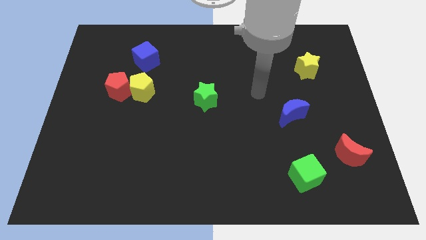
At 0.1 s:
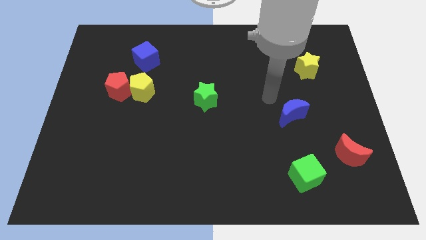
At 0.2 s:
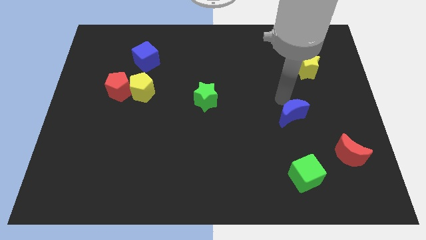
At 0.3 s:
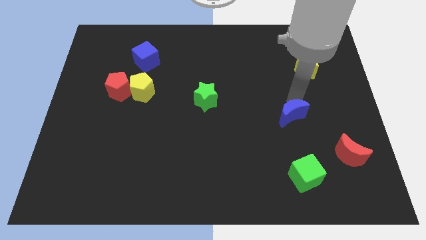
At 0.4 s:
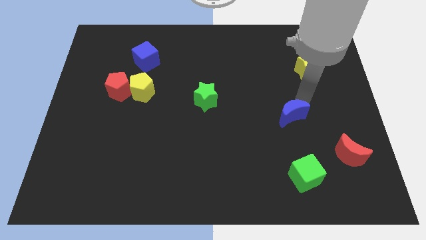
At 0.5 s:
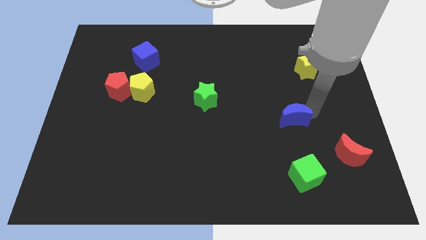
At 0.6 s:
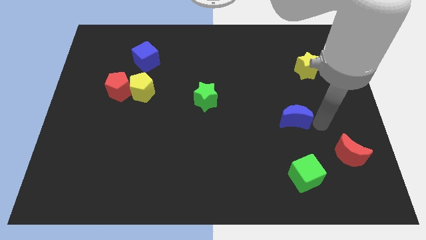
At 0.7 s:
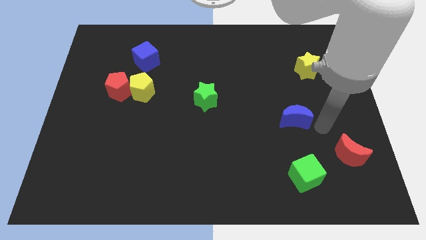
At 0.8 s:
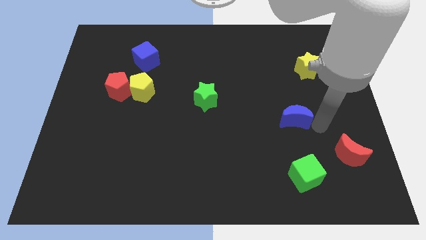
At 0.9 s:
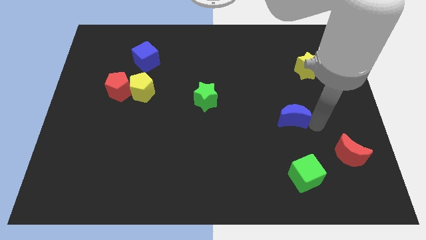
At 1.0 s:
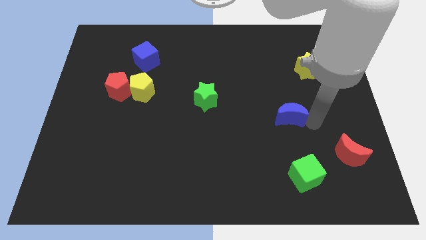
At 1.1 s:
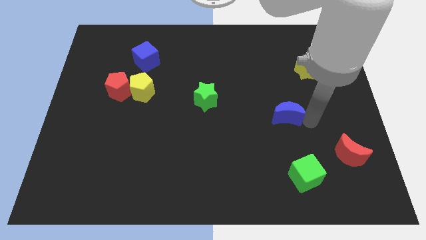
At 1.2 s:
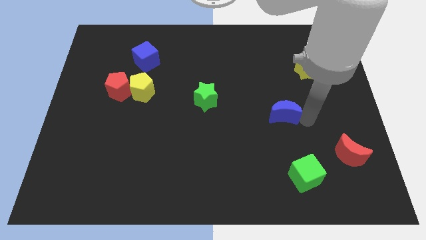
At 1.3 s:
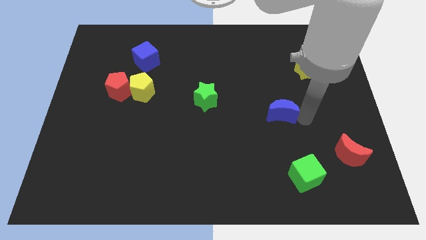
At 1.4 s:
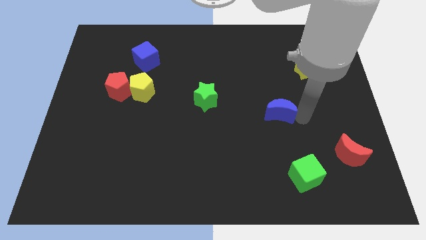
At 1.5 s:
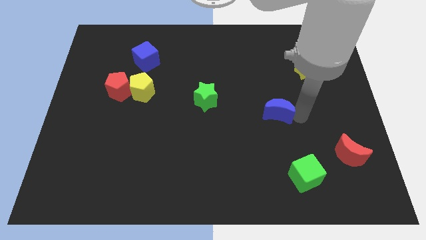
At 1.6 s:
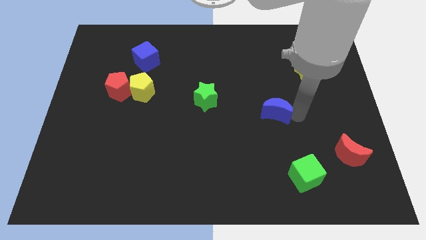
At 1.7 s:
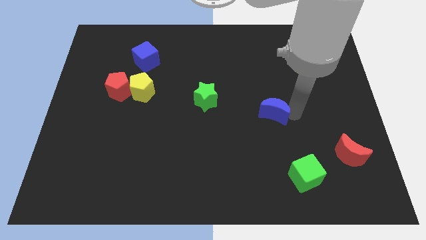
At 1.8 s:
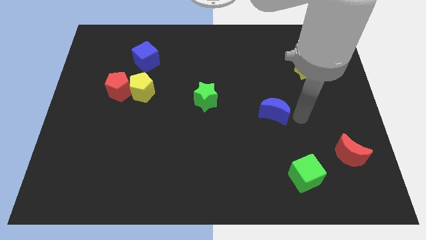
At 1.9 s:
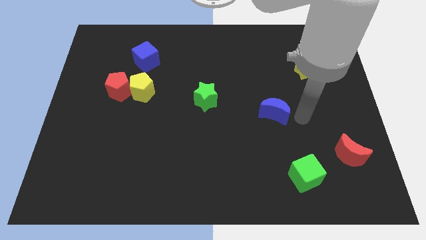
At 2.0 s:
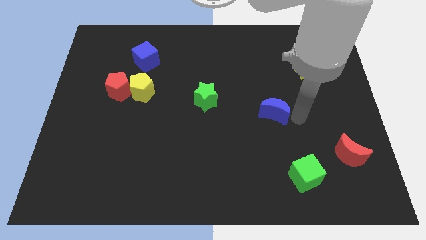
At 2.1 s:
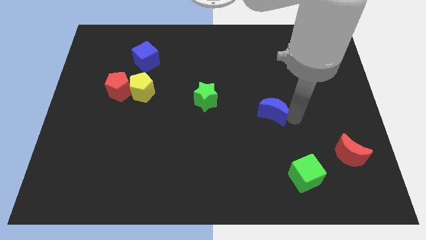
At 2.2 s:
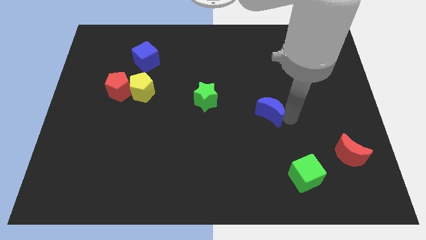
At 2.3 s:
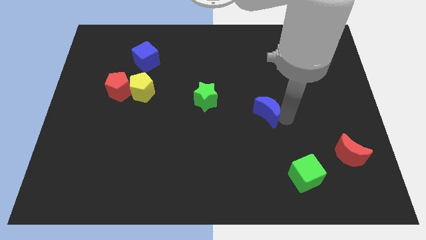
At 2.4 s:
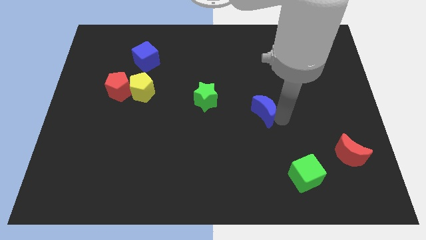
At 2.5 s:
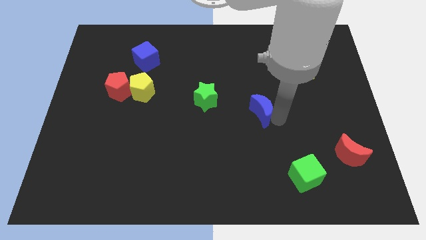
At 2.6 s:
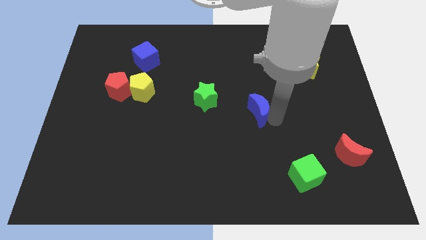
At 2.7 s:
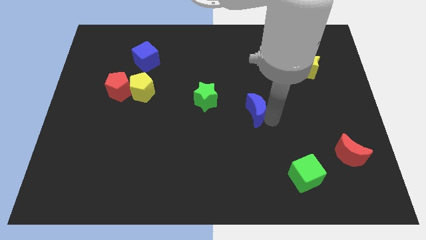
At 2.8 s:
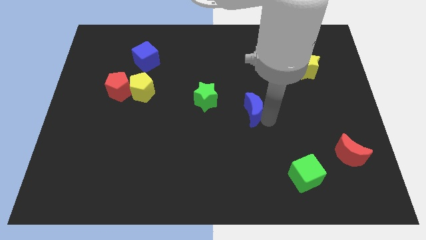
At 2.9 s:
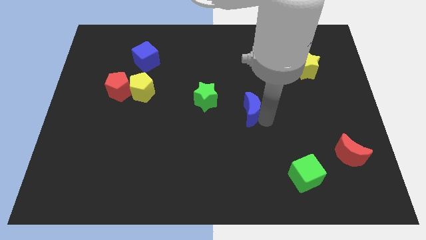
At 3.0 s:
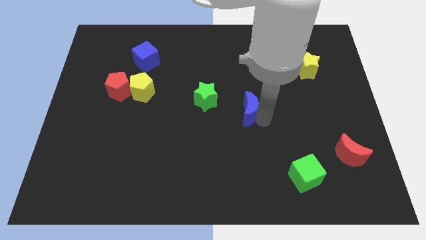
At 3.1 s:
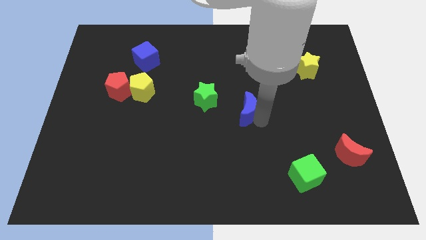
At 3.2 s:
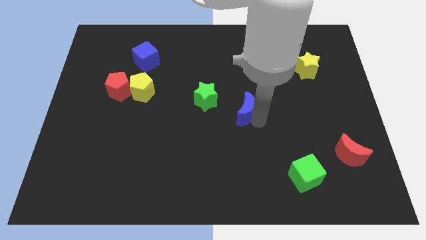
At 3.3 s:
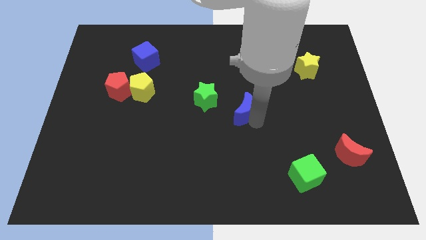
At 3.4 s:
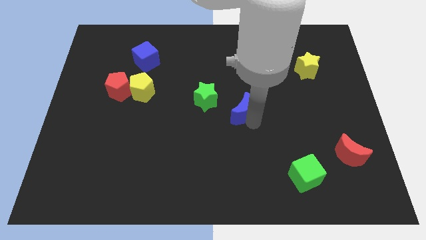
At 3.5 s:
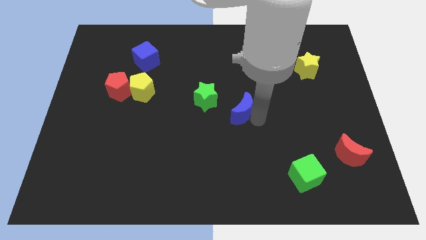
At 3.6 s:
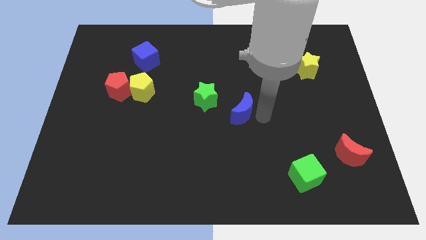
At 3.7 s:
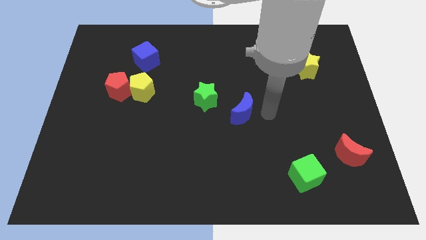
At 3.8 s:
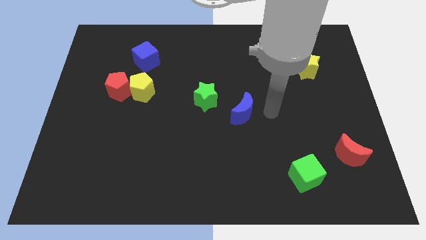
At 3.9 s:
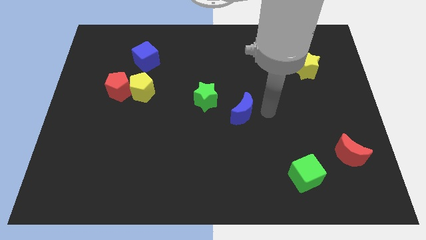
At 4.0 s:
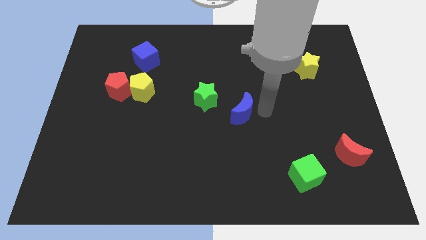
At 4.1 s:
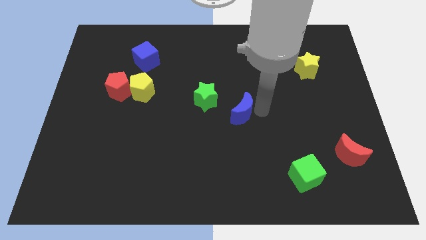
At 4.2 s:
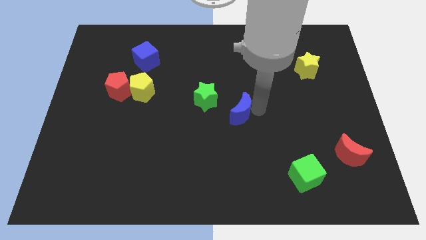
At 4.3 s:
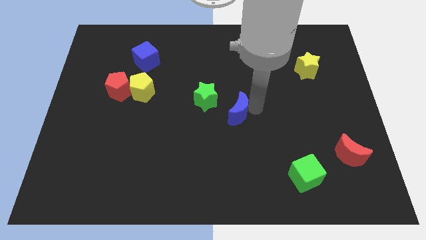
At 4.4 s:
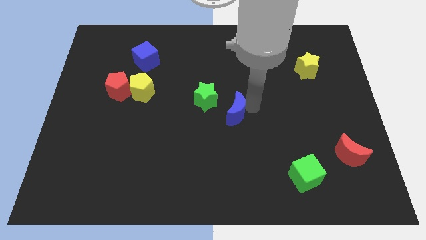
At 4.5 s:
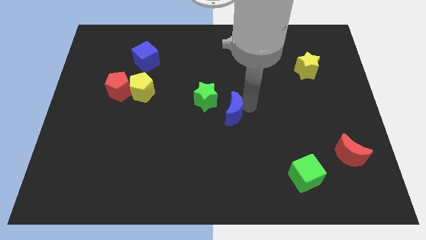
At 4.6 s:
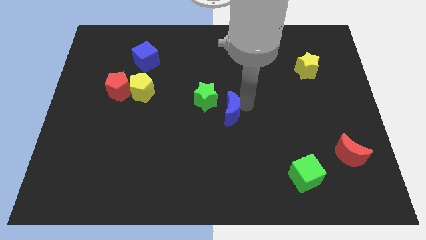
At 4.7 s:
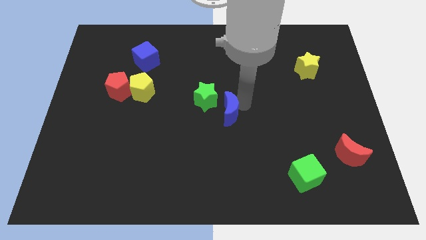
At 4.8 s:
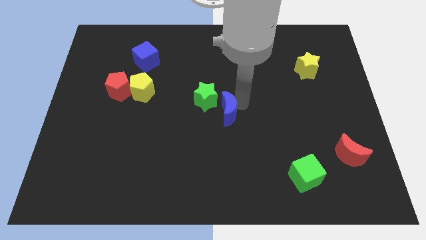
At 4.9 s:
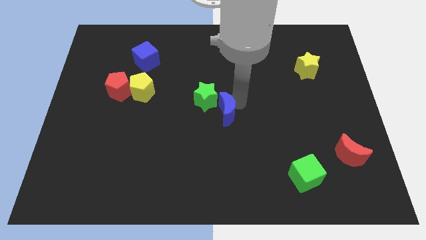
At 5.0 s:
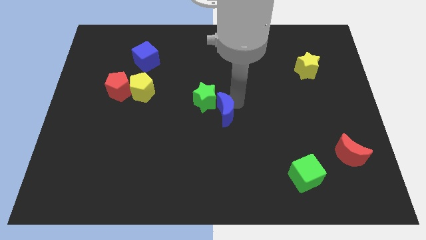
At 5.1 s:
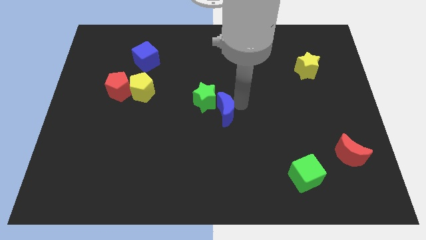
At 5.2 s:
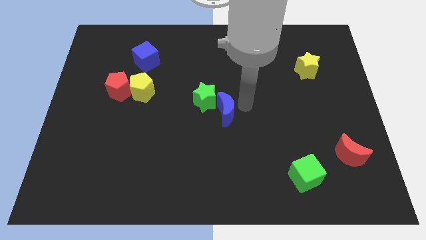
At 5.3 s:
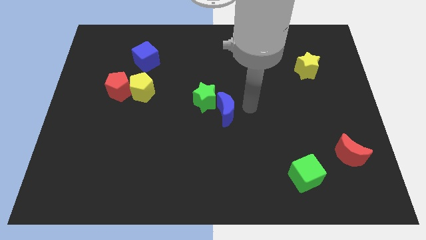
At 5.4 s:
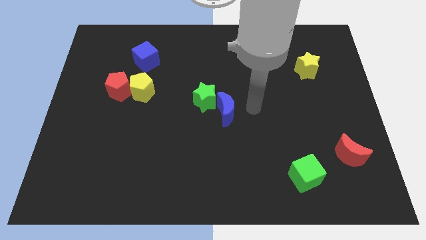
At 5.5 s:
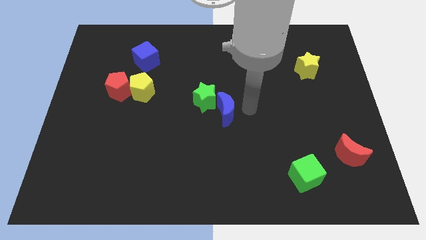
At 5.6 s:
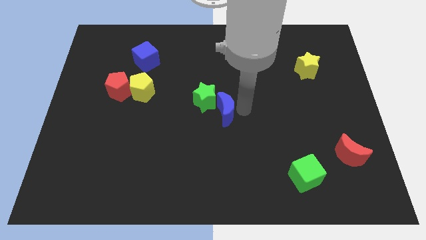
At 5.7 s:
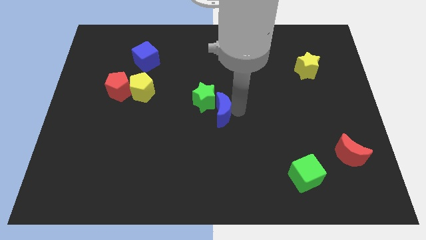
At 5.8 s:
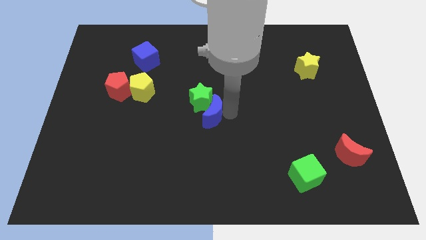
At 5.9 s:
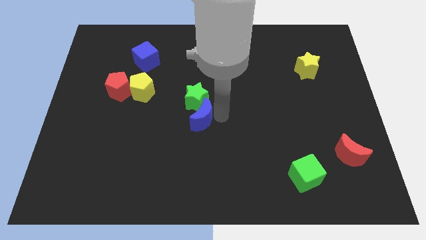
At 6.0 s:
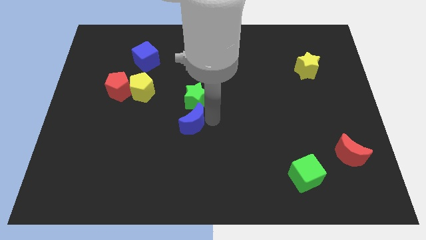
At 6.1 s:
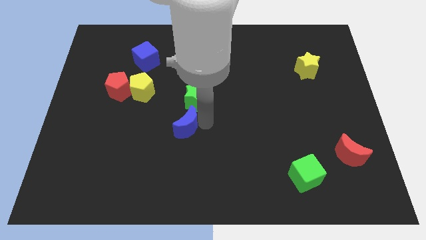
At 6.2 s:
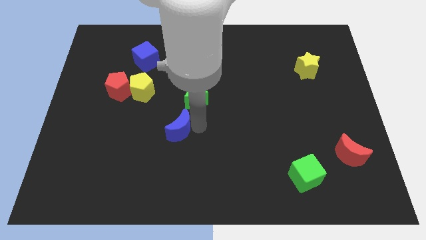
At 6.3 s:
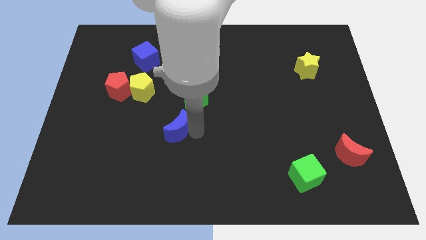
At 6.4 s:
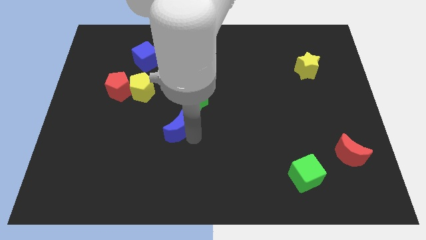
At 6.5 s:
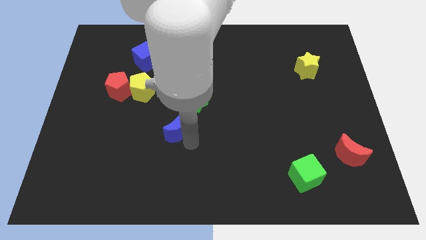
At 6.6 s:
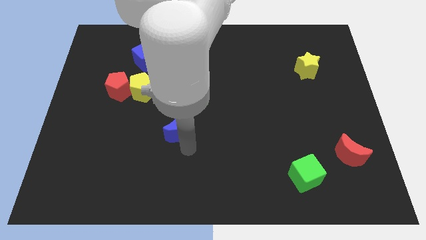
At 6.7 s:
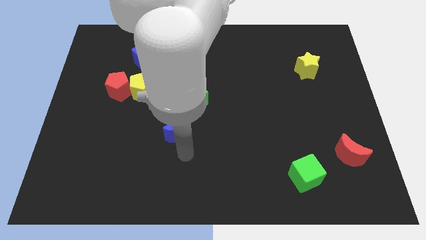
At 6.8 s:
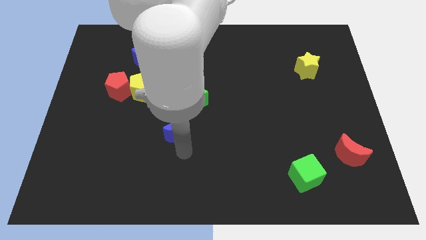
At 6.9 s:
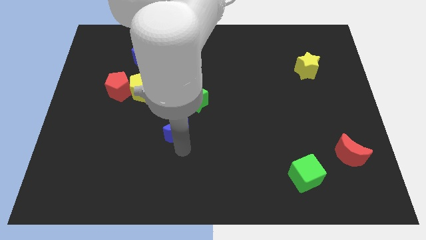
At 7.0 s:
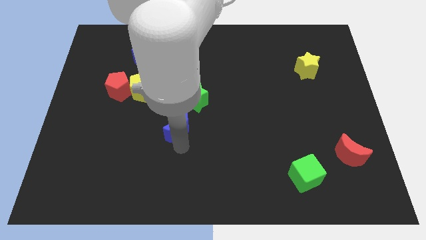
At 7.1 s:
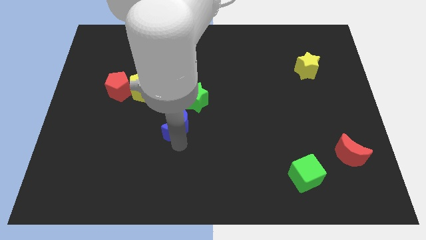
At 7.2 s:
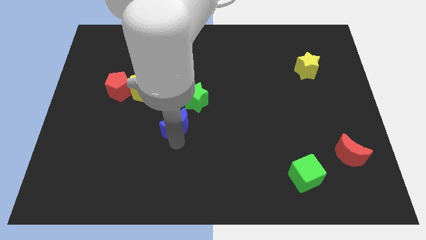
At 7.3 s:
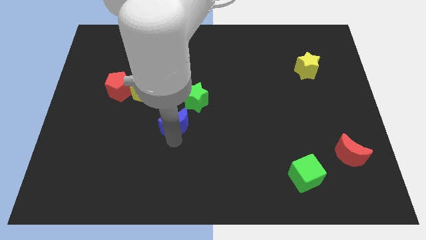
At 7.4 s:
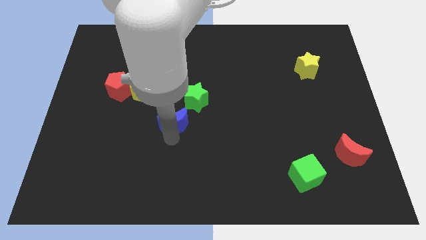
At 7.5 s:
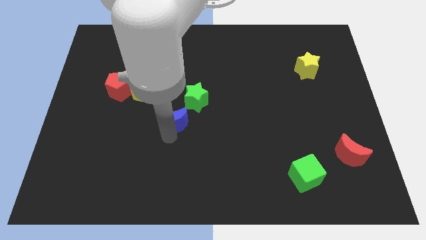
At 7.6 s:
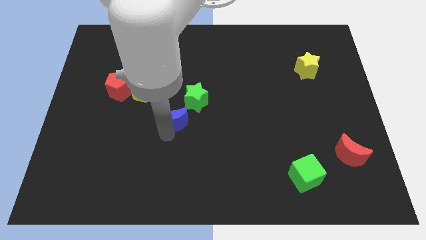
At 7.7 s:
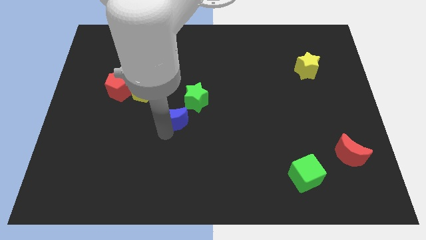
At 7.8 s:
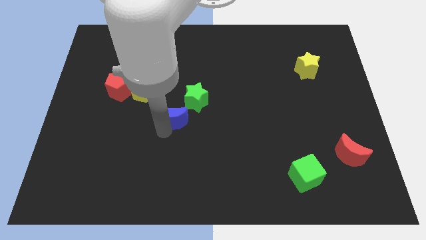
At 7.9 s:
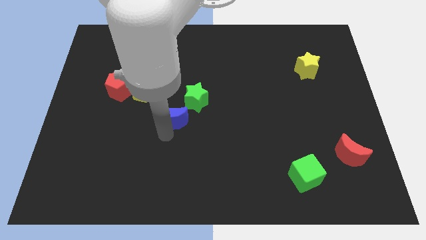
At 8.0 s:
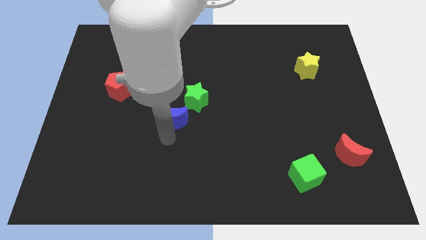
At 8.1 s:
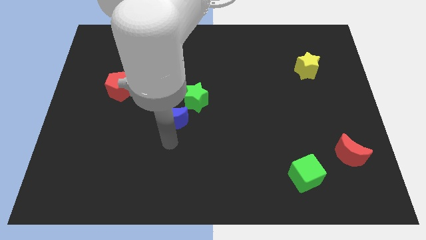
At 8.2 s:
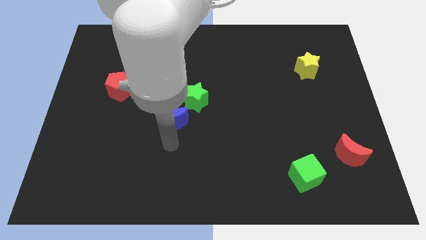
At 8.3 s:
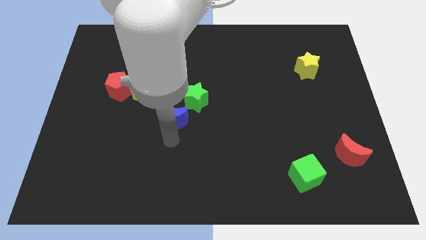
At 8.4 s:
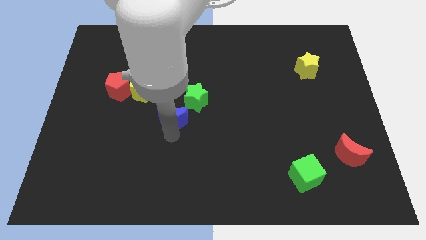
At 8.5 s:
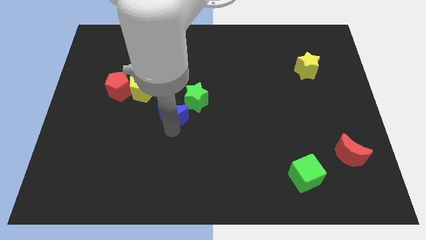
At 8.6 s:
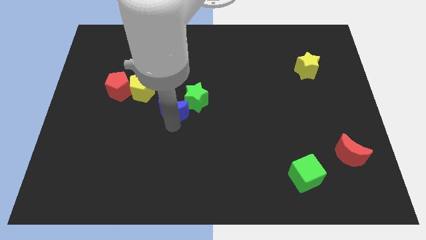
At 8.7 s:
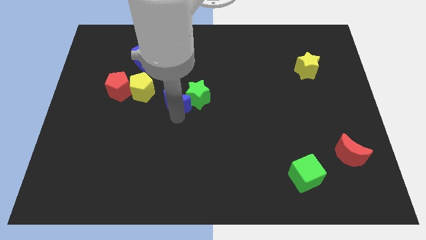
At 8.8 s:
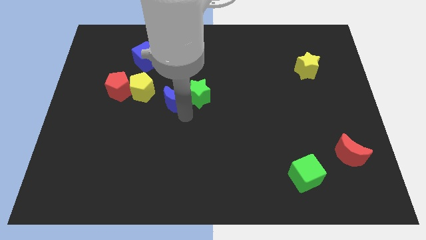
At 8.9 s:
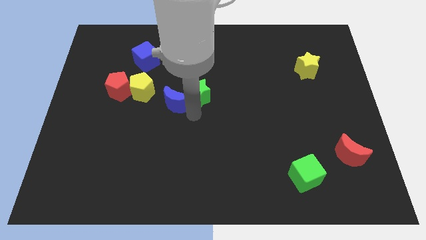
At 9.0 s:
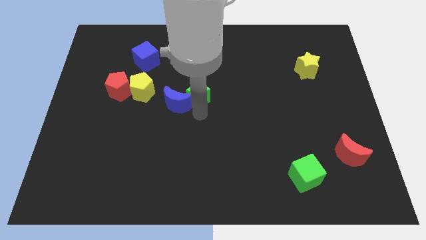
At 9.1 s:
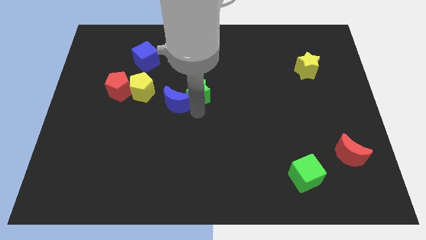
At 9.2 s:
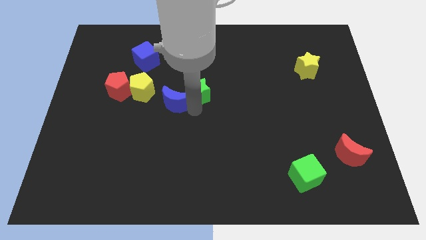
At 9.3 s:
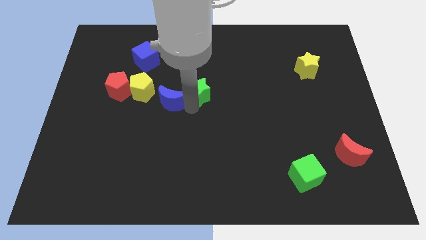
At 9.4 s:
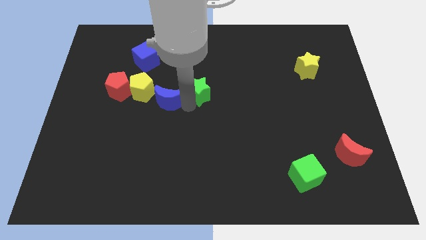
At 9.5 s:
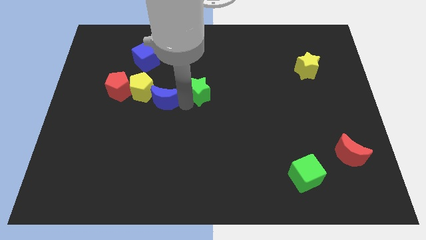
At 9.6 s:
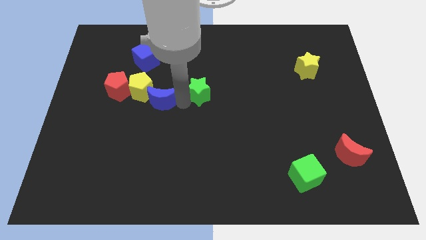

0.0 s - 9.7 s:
put the blue moon to the yellow pentagon
